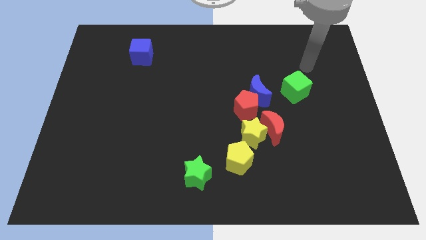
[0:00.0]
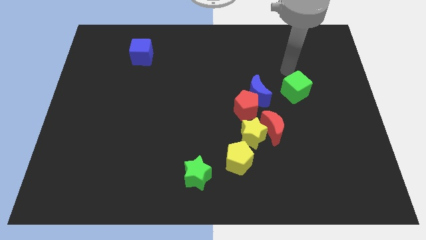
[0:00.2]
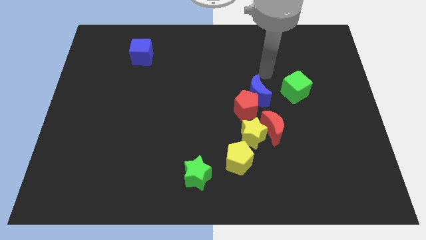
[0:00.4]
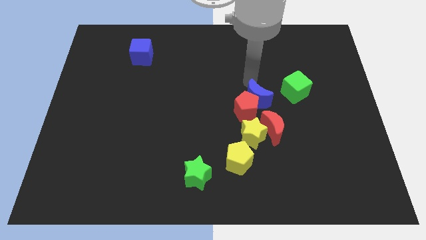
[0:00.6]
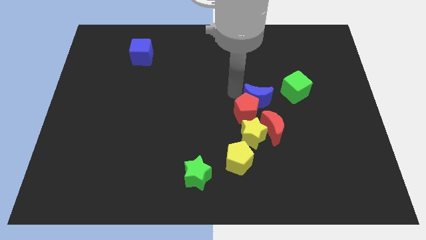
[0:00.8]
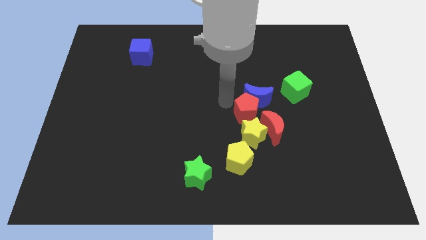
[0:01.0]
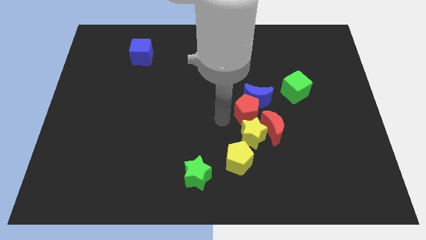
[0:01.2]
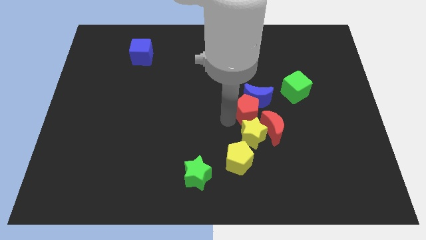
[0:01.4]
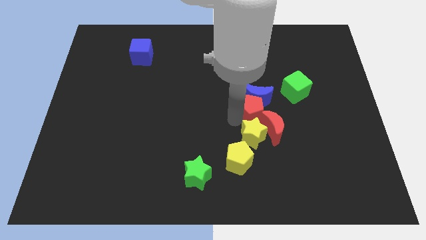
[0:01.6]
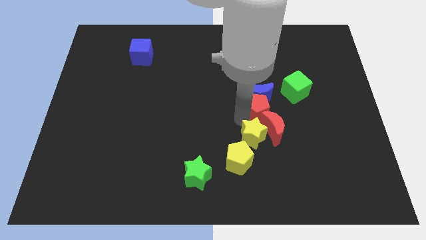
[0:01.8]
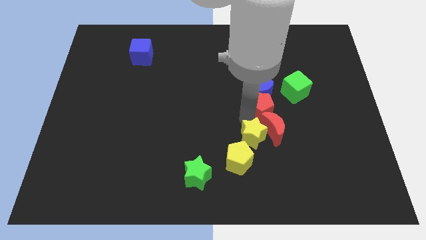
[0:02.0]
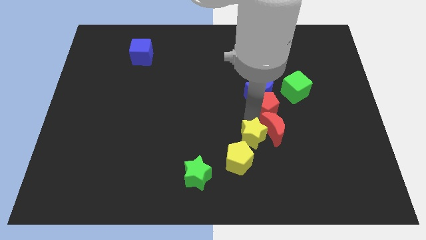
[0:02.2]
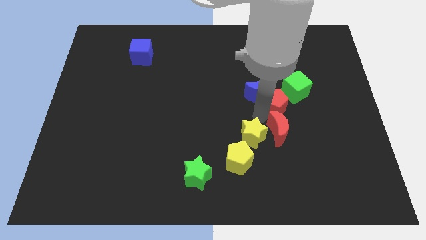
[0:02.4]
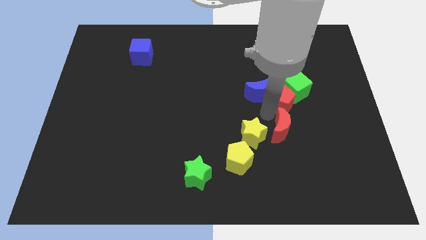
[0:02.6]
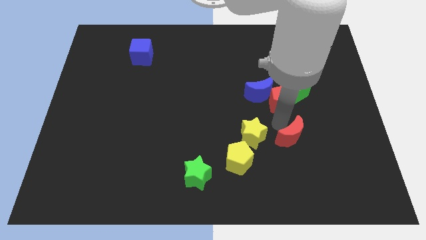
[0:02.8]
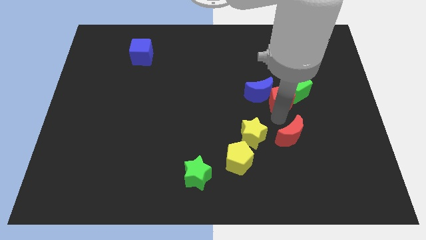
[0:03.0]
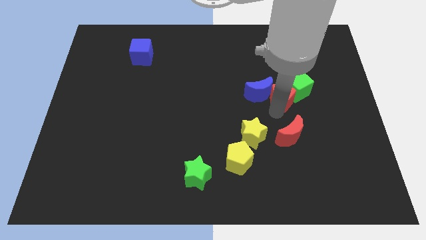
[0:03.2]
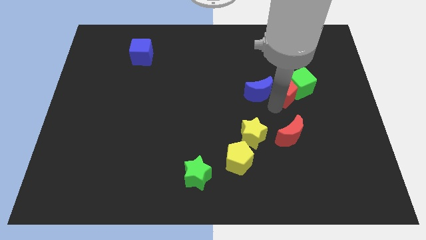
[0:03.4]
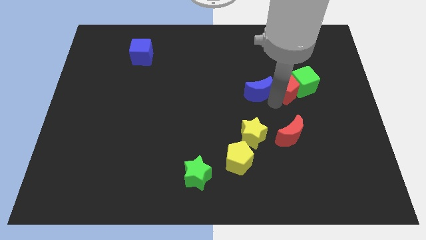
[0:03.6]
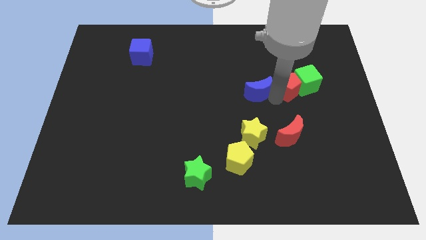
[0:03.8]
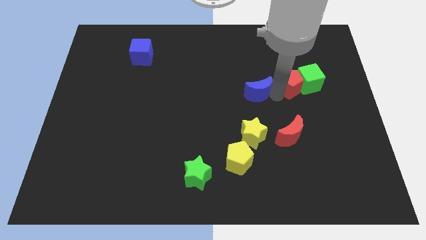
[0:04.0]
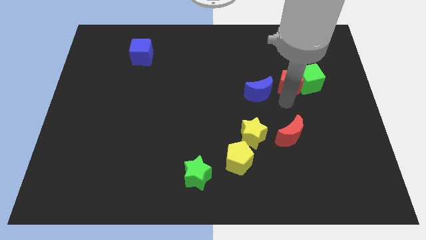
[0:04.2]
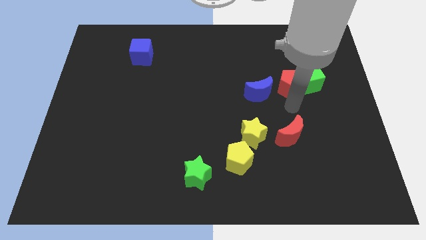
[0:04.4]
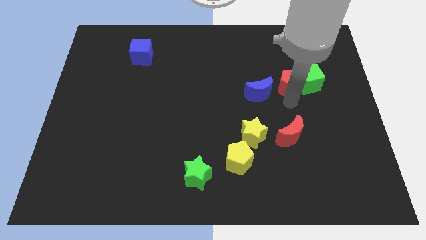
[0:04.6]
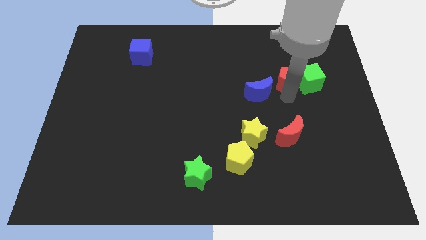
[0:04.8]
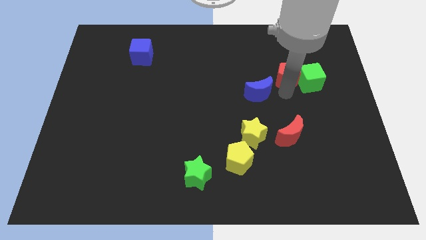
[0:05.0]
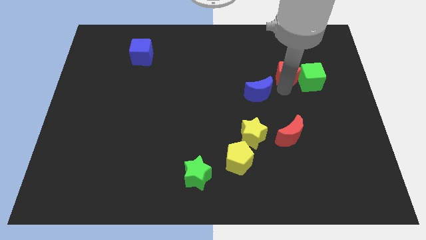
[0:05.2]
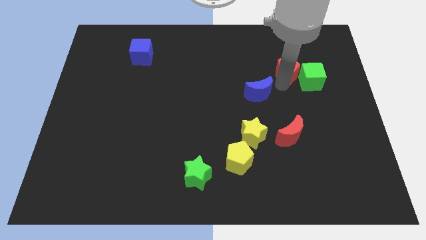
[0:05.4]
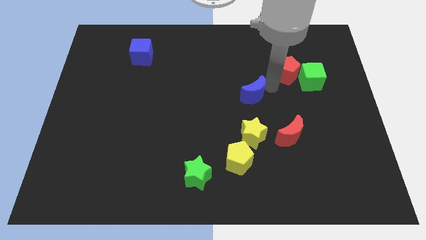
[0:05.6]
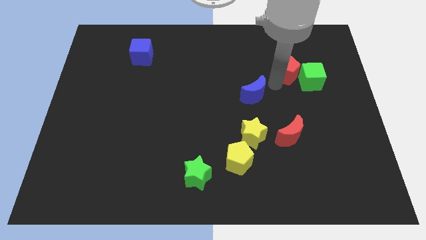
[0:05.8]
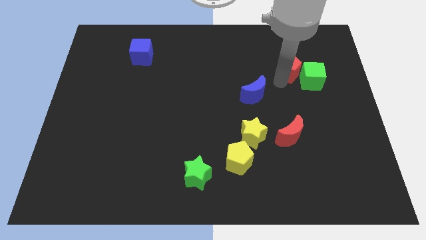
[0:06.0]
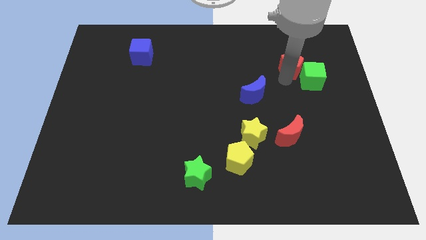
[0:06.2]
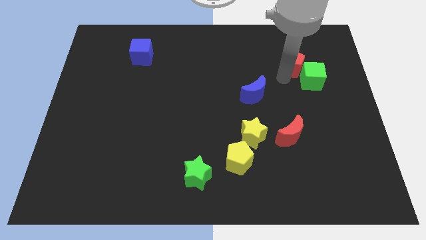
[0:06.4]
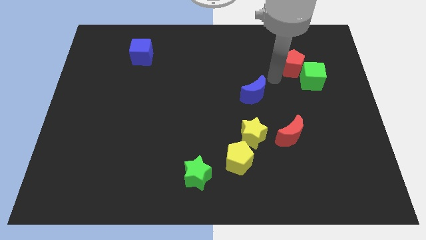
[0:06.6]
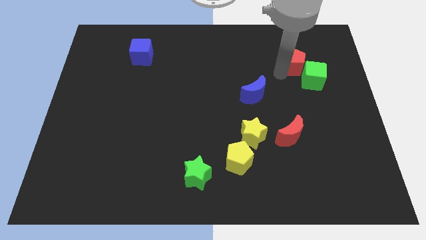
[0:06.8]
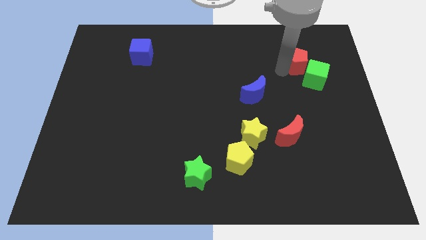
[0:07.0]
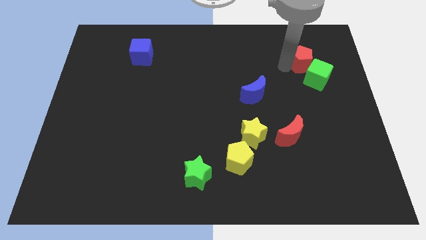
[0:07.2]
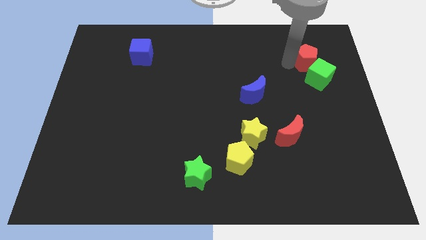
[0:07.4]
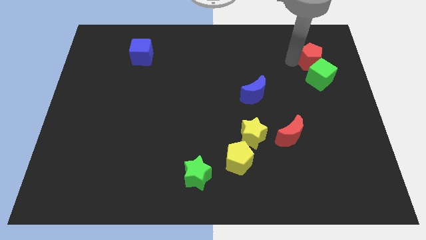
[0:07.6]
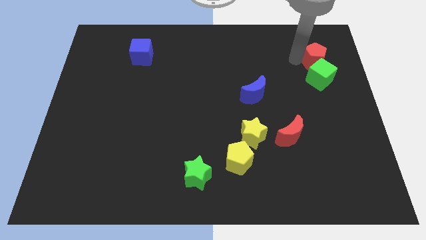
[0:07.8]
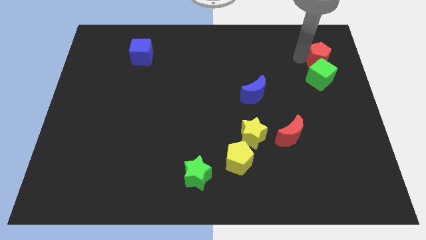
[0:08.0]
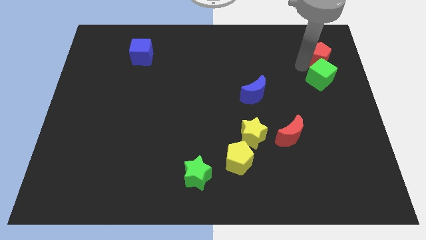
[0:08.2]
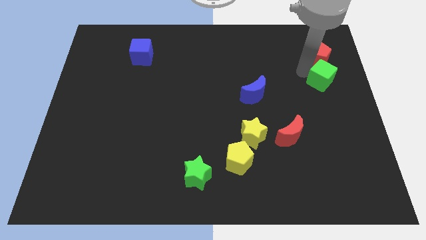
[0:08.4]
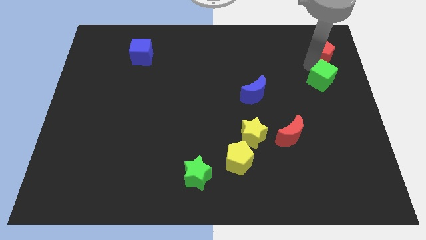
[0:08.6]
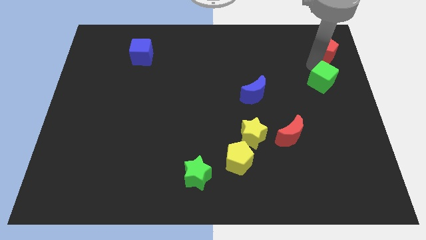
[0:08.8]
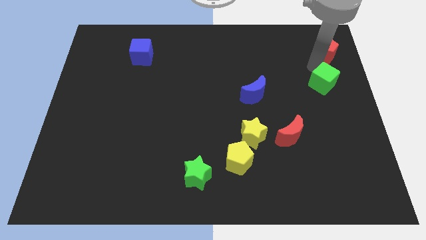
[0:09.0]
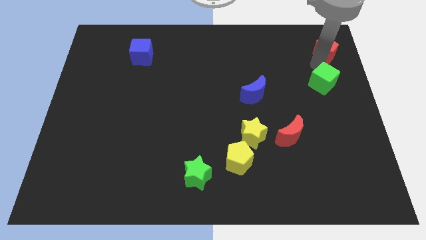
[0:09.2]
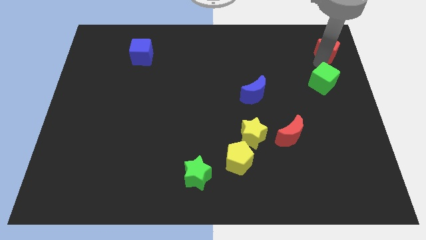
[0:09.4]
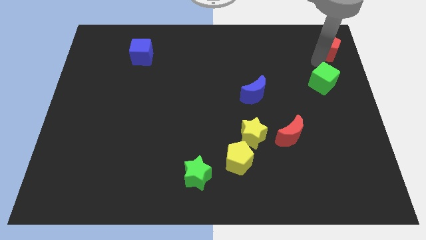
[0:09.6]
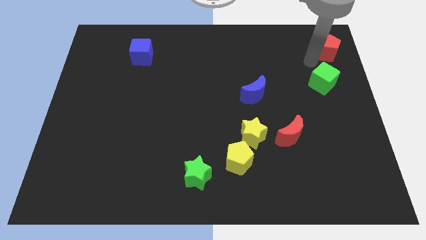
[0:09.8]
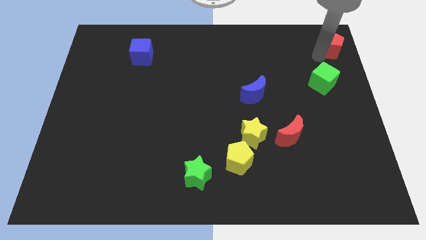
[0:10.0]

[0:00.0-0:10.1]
slide the red pentagon to the top right corner

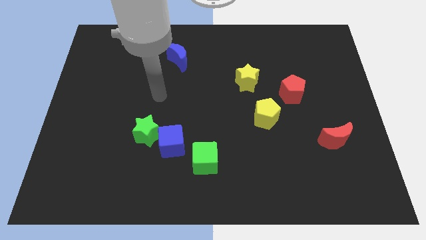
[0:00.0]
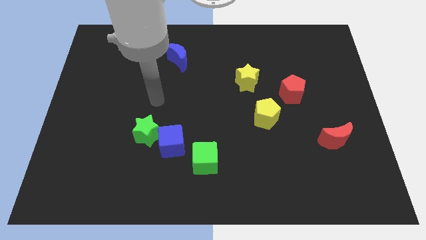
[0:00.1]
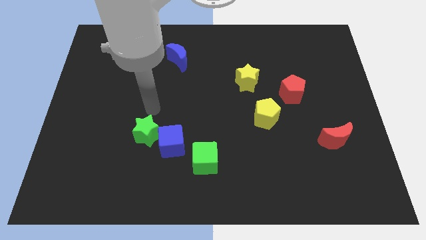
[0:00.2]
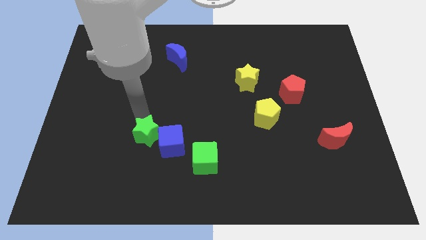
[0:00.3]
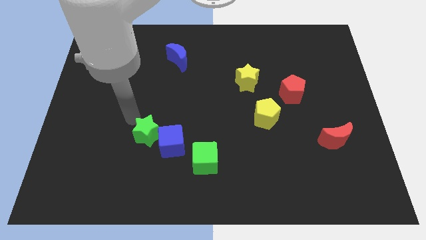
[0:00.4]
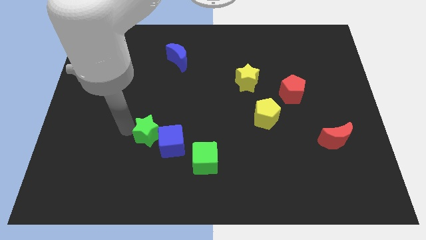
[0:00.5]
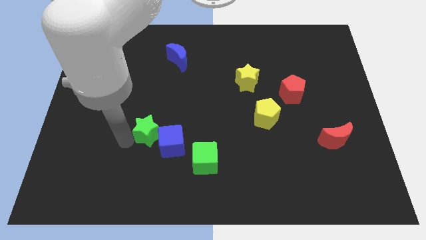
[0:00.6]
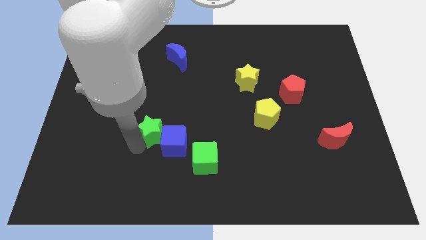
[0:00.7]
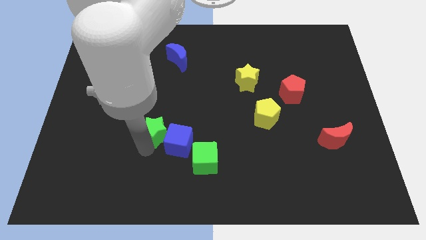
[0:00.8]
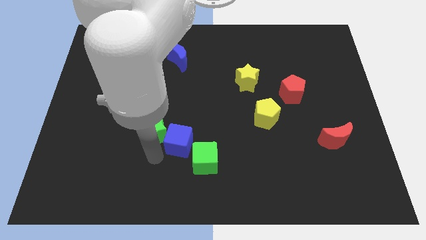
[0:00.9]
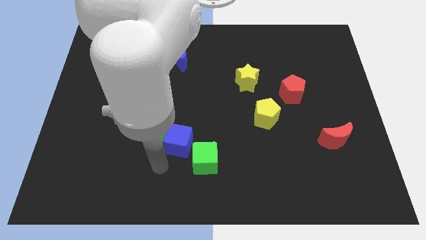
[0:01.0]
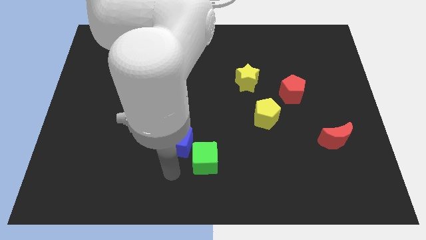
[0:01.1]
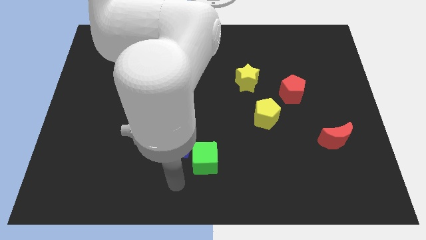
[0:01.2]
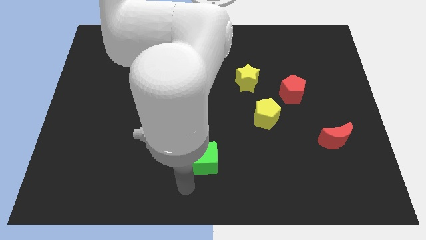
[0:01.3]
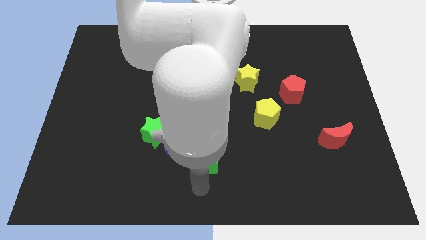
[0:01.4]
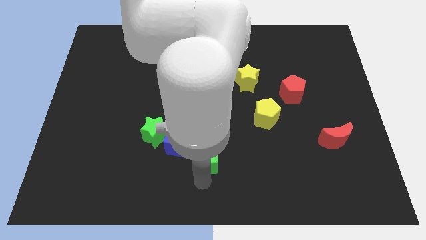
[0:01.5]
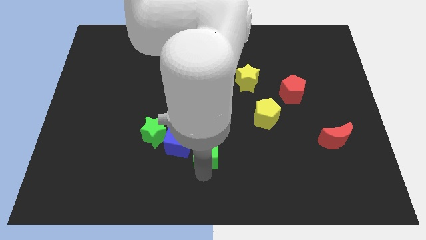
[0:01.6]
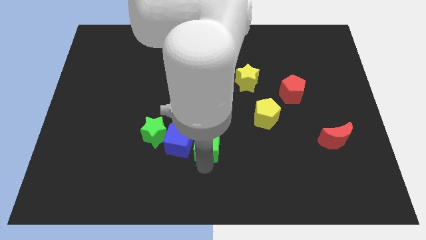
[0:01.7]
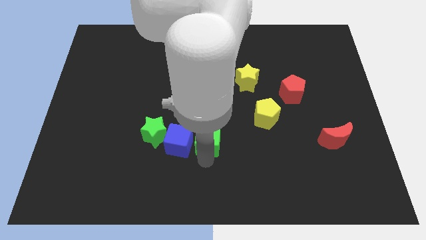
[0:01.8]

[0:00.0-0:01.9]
slide the green cube to the middle of the board
